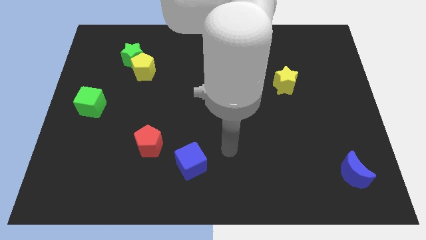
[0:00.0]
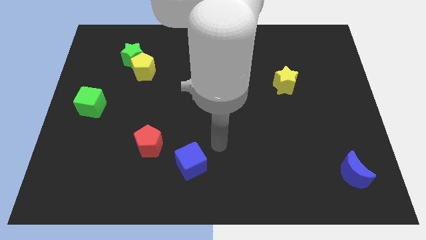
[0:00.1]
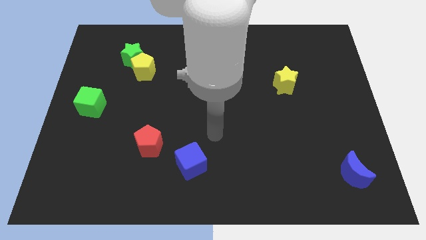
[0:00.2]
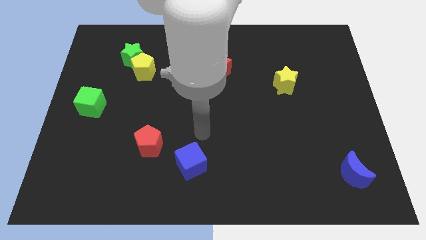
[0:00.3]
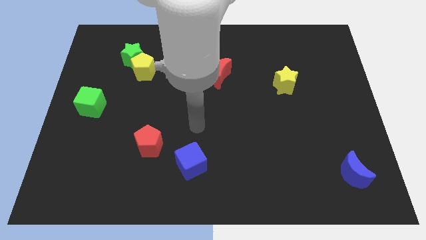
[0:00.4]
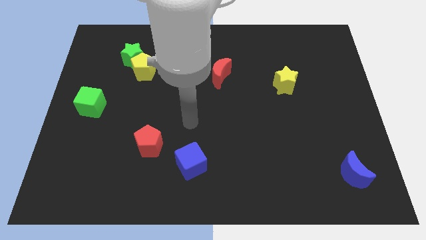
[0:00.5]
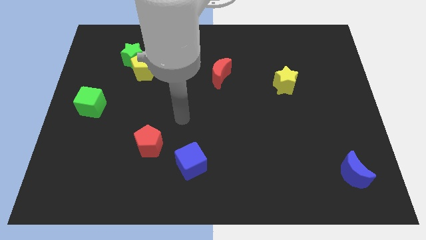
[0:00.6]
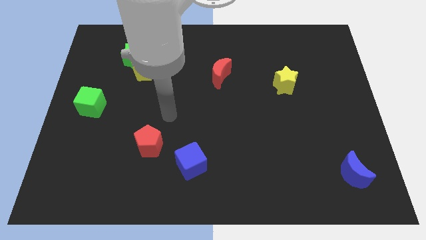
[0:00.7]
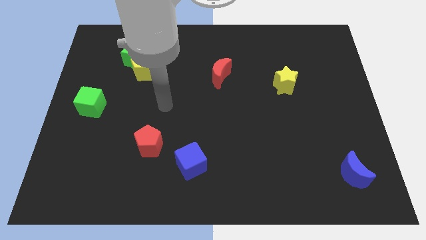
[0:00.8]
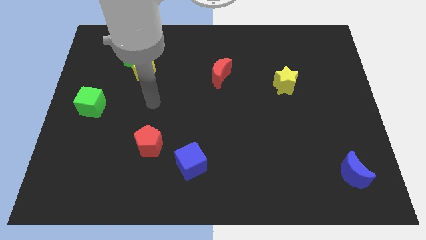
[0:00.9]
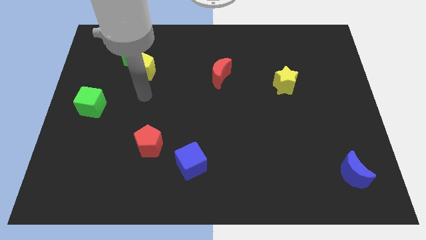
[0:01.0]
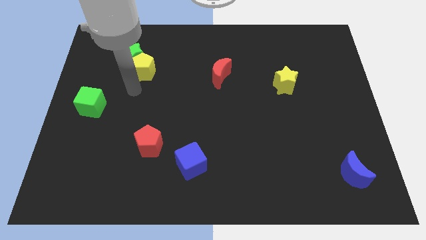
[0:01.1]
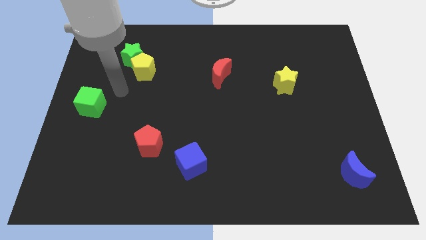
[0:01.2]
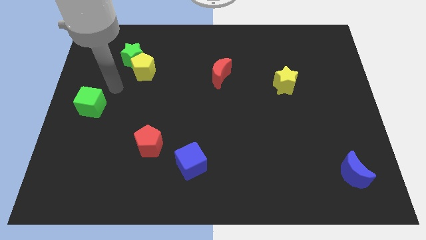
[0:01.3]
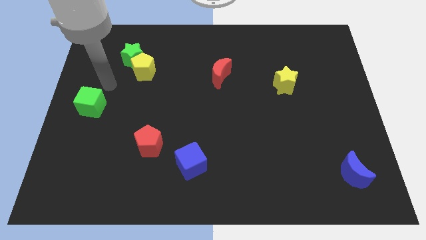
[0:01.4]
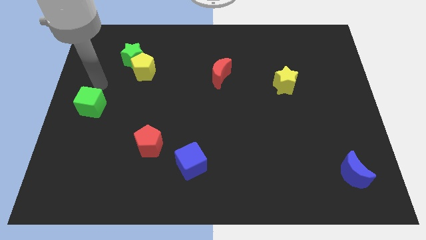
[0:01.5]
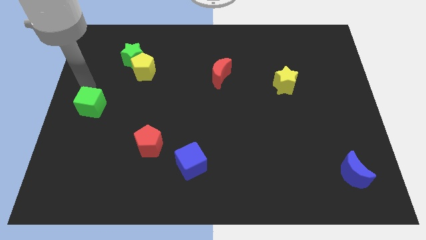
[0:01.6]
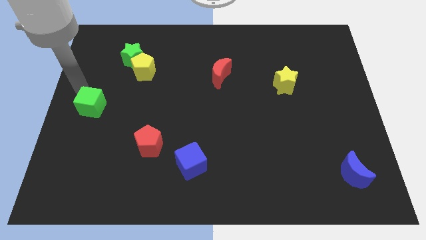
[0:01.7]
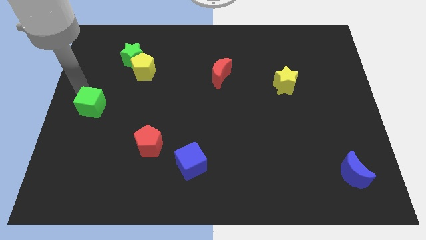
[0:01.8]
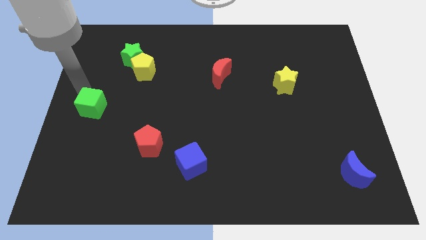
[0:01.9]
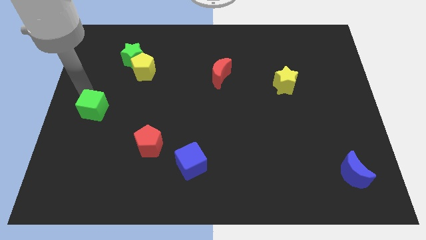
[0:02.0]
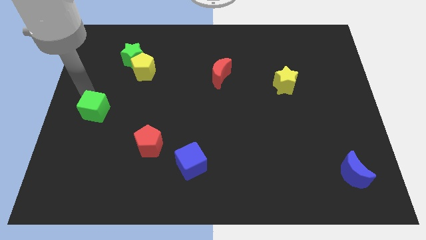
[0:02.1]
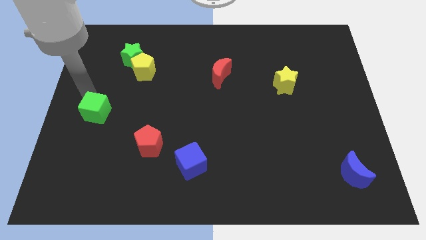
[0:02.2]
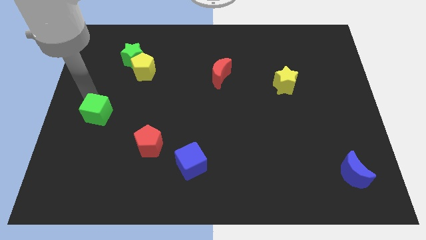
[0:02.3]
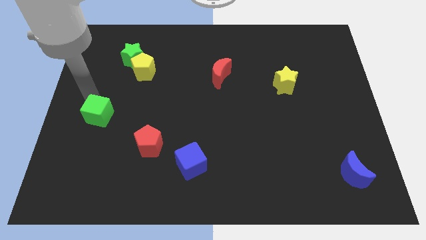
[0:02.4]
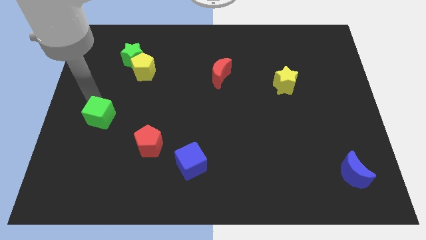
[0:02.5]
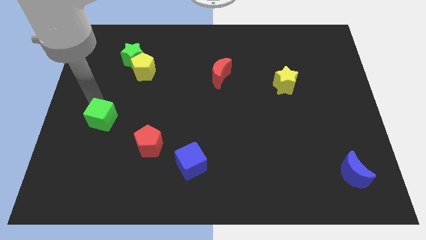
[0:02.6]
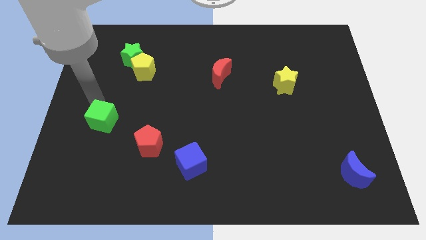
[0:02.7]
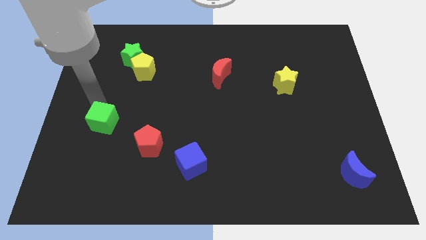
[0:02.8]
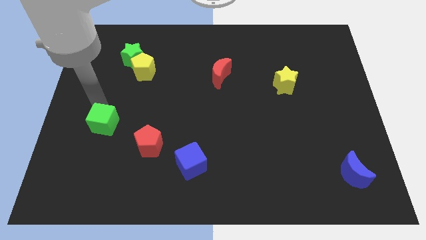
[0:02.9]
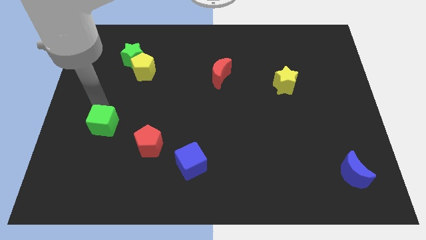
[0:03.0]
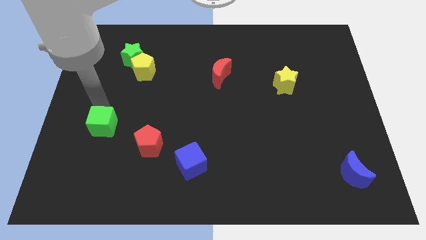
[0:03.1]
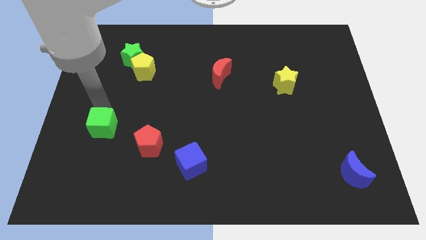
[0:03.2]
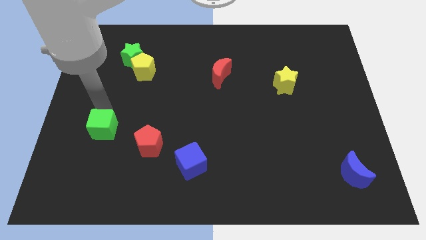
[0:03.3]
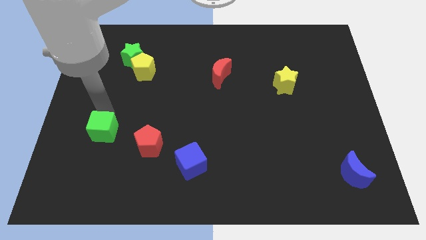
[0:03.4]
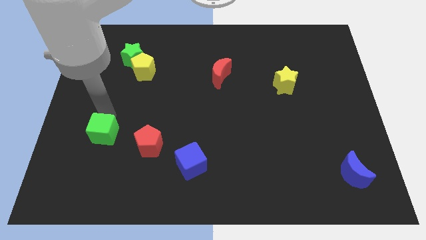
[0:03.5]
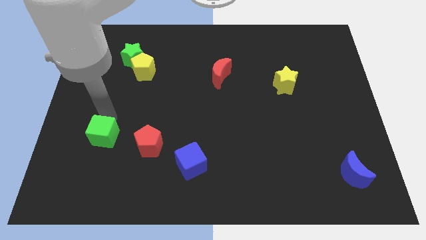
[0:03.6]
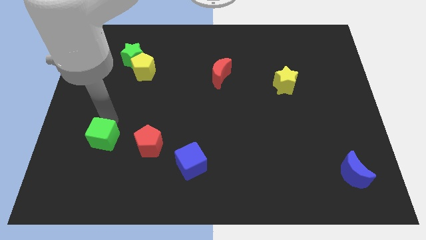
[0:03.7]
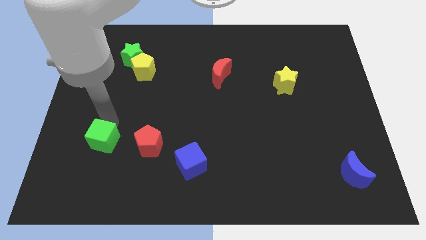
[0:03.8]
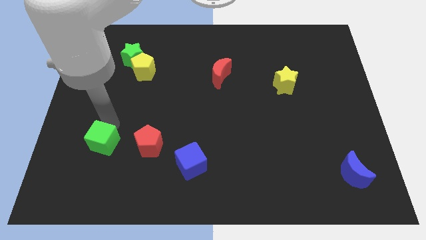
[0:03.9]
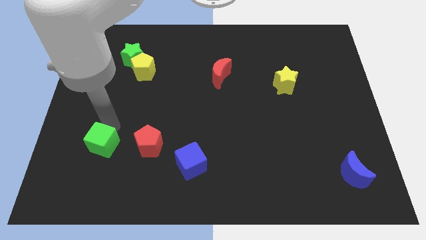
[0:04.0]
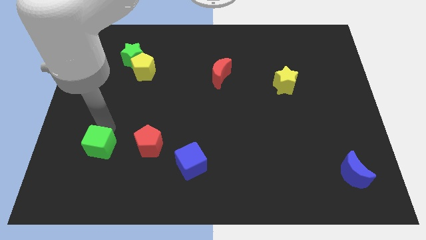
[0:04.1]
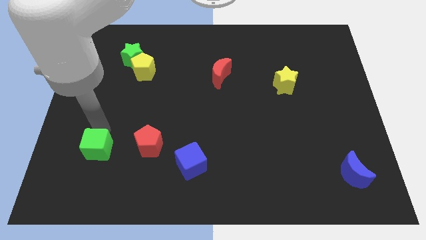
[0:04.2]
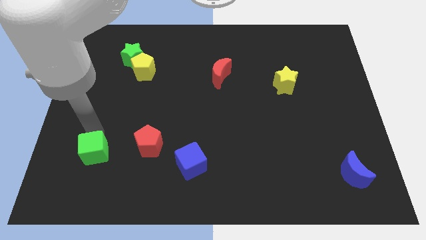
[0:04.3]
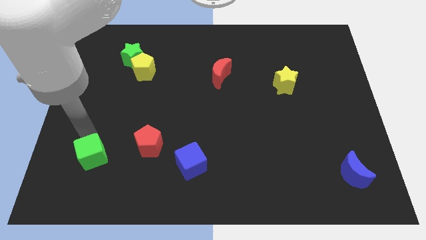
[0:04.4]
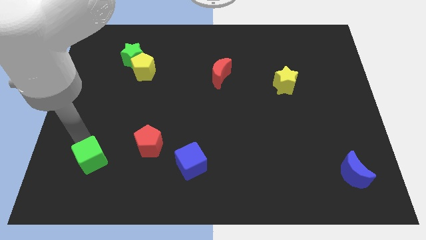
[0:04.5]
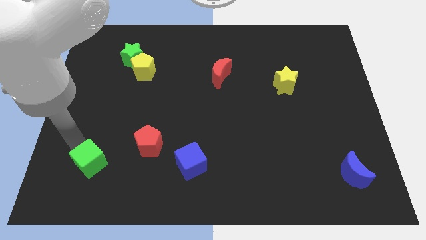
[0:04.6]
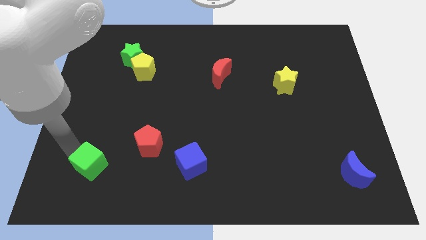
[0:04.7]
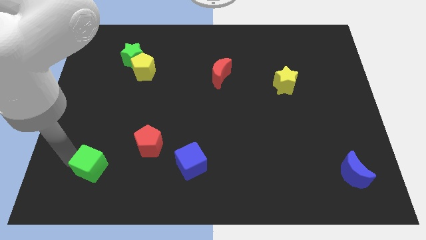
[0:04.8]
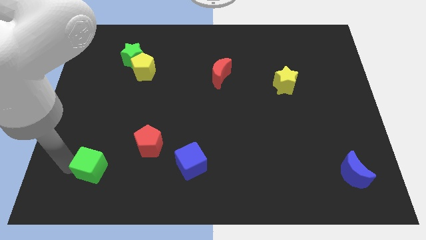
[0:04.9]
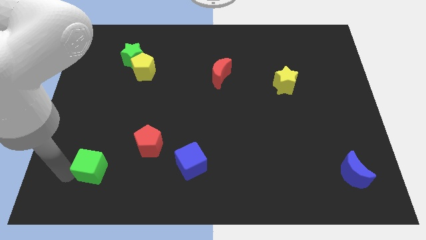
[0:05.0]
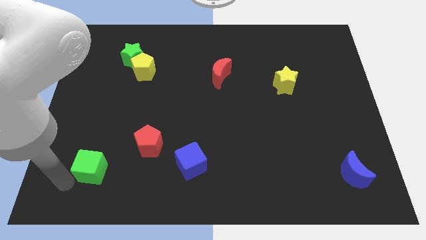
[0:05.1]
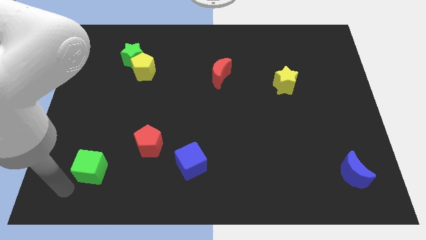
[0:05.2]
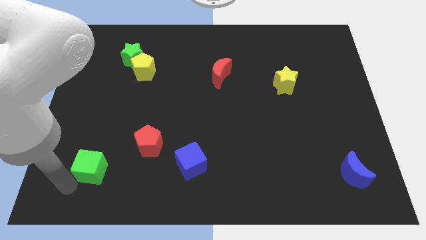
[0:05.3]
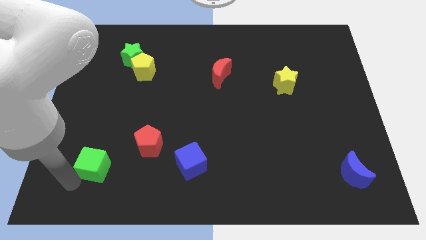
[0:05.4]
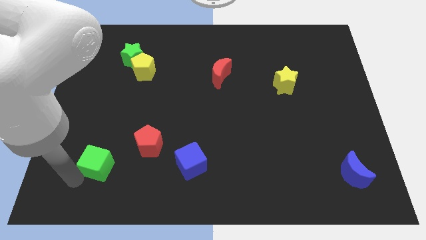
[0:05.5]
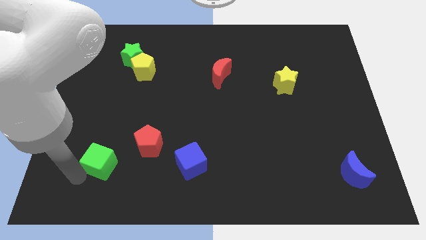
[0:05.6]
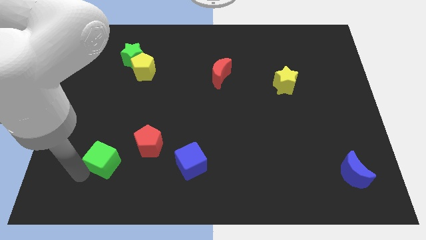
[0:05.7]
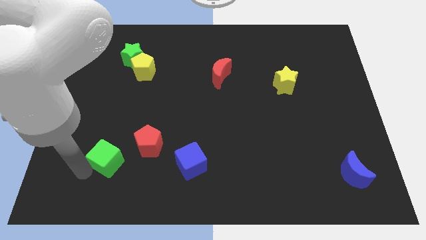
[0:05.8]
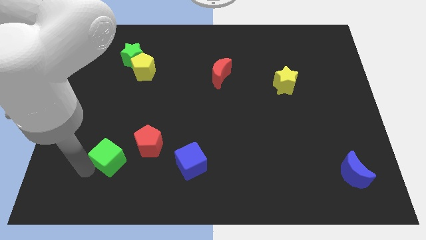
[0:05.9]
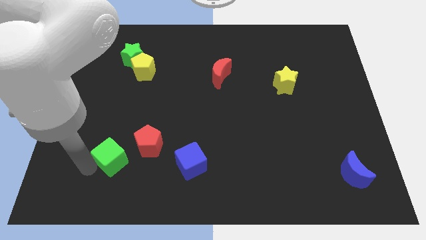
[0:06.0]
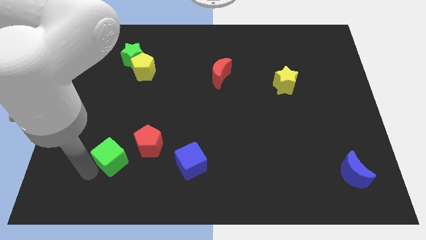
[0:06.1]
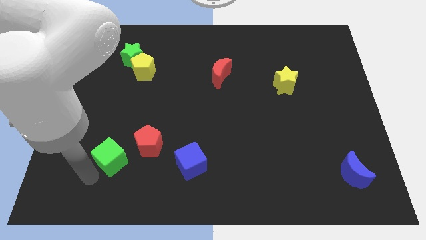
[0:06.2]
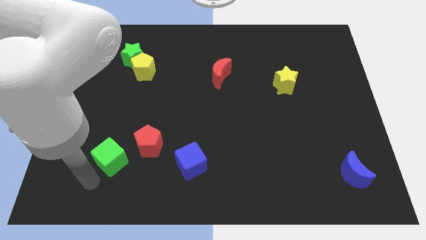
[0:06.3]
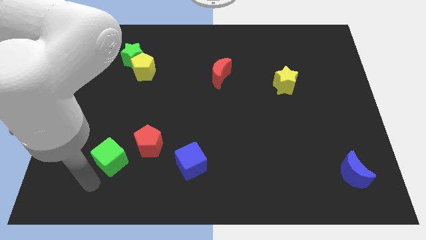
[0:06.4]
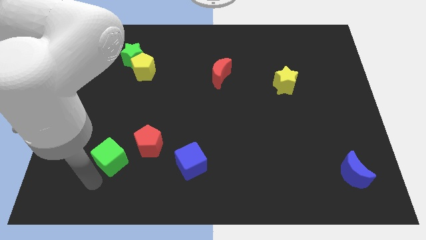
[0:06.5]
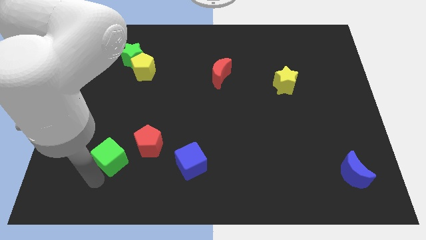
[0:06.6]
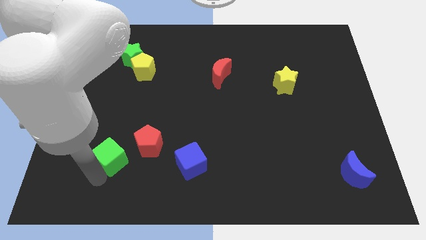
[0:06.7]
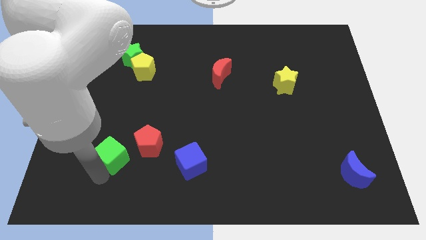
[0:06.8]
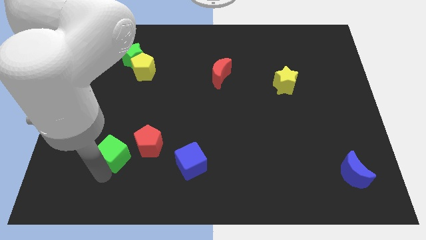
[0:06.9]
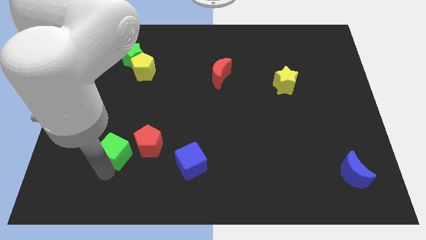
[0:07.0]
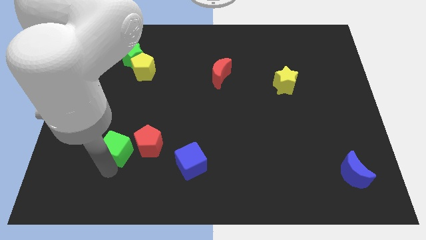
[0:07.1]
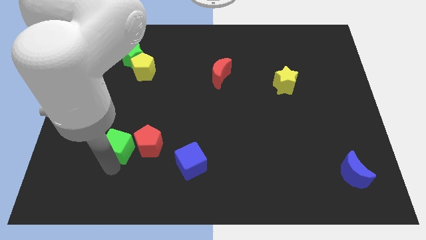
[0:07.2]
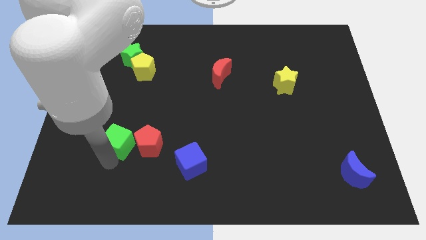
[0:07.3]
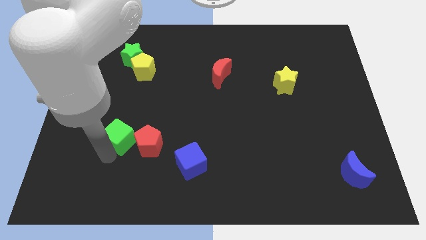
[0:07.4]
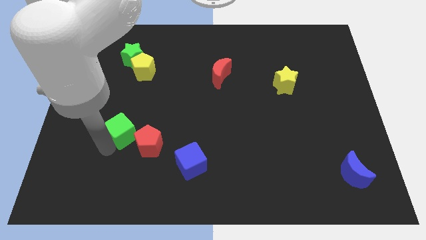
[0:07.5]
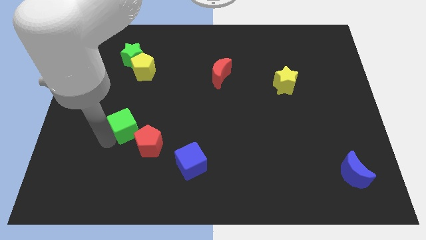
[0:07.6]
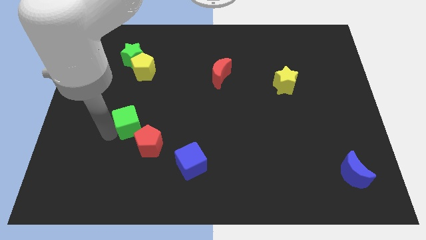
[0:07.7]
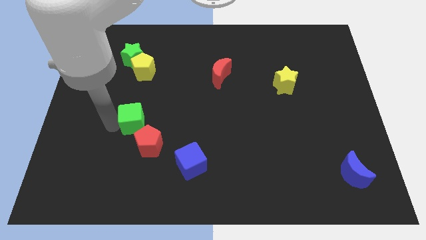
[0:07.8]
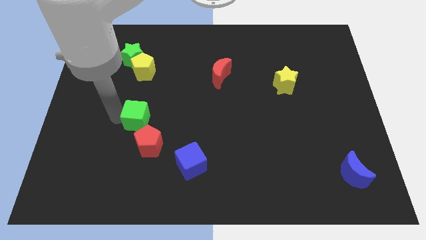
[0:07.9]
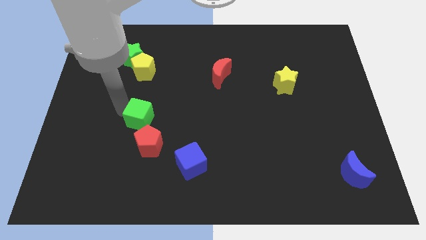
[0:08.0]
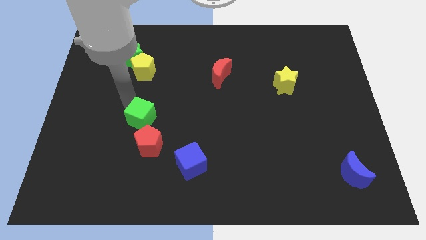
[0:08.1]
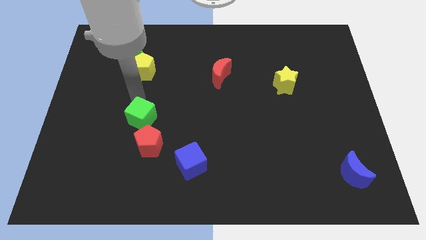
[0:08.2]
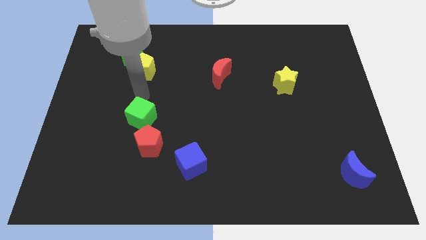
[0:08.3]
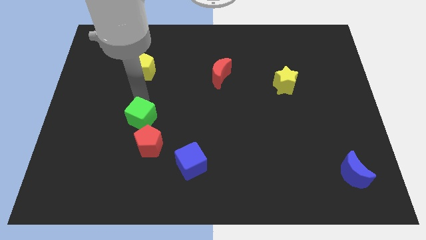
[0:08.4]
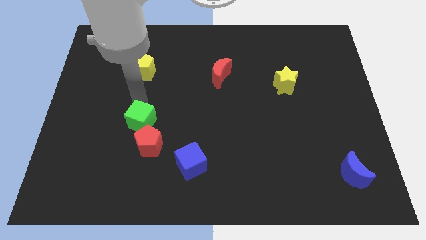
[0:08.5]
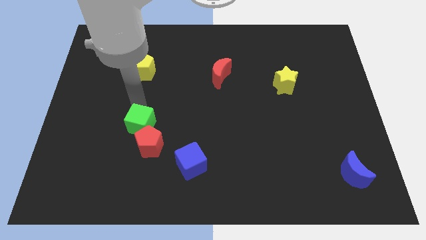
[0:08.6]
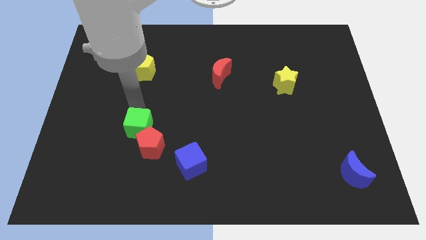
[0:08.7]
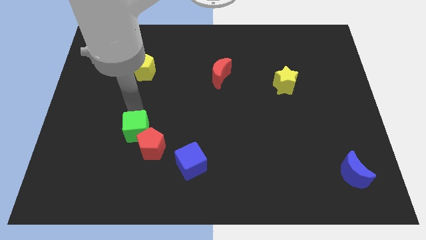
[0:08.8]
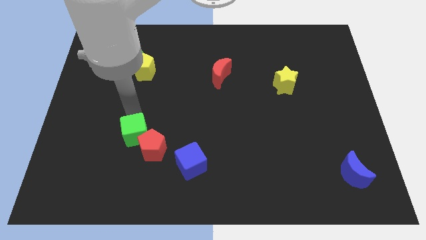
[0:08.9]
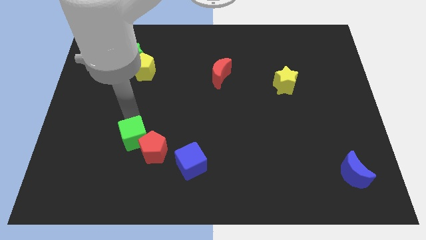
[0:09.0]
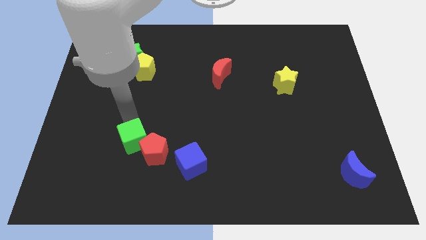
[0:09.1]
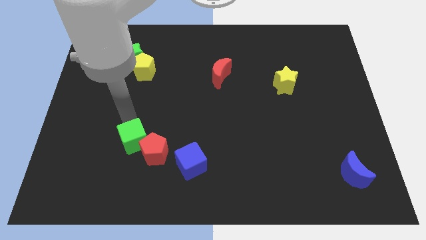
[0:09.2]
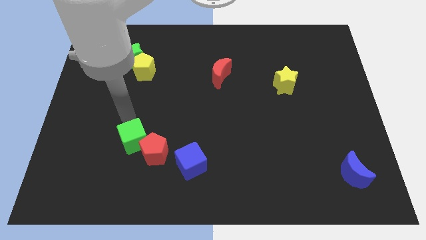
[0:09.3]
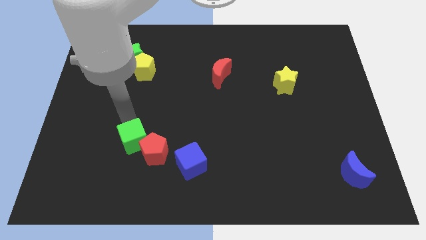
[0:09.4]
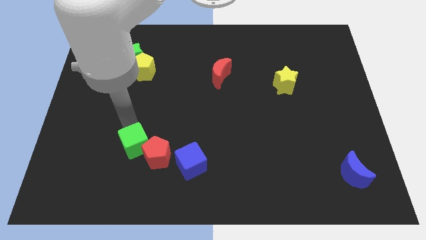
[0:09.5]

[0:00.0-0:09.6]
push the green cube just left of the blue cube
